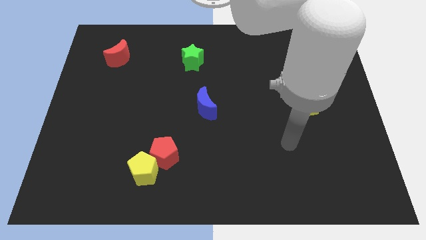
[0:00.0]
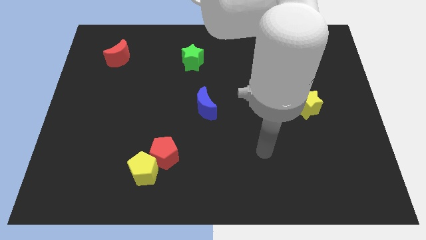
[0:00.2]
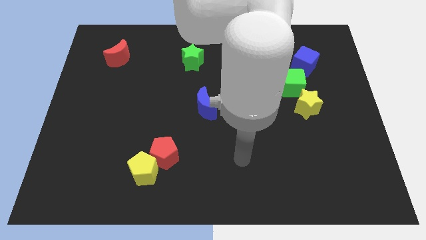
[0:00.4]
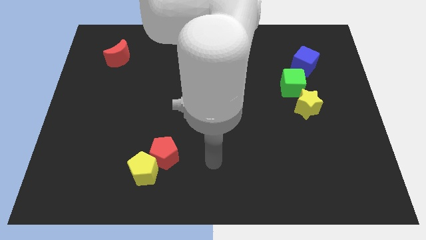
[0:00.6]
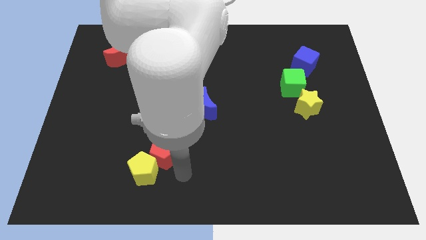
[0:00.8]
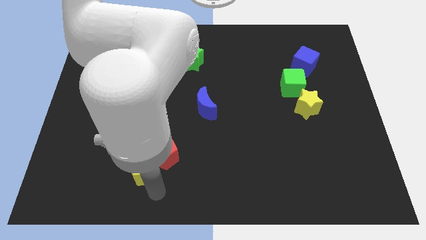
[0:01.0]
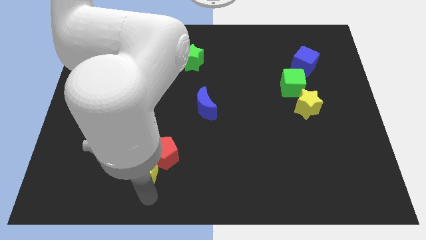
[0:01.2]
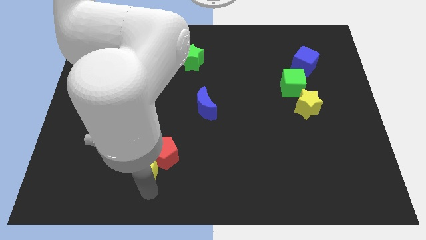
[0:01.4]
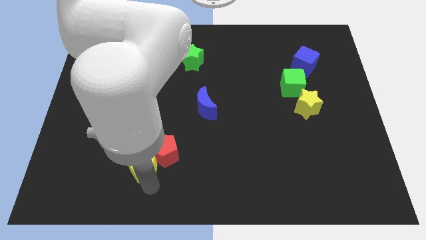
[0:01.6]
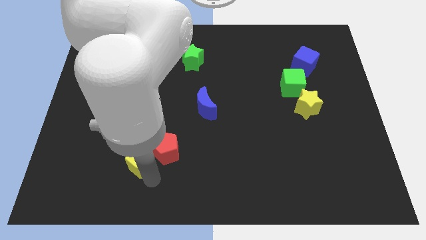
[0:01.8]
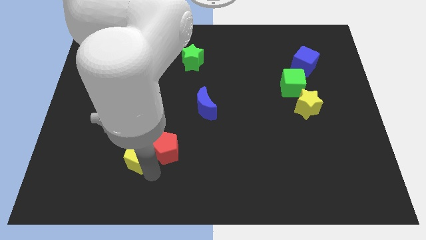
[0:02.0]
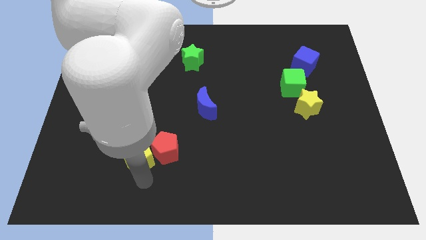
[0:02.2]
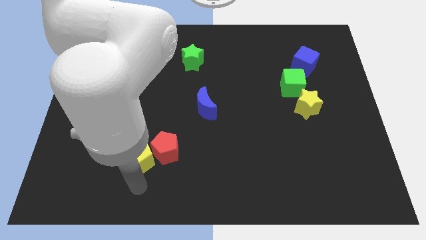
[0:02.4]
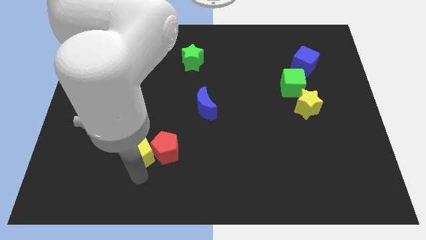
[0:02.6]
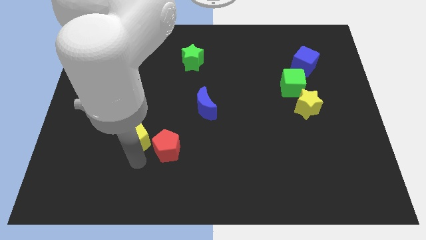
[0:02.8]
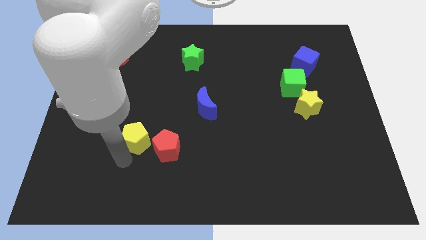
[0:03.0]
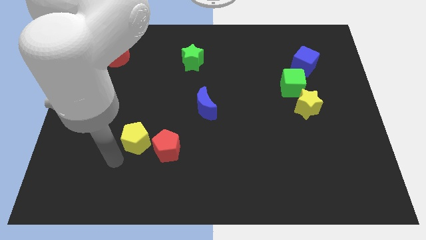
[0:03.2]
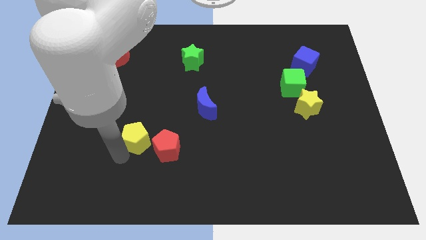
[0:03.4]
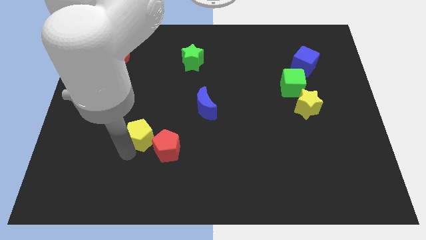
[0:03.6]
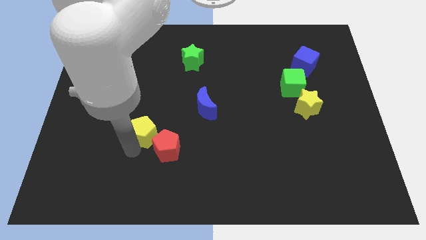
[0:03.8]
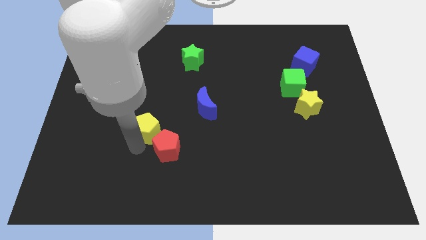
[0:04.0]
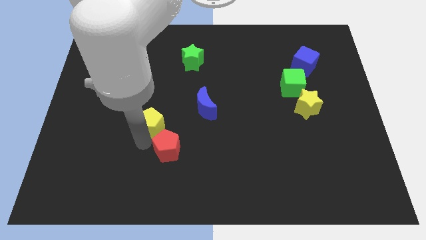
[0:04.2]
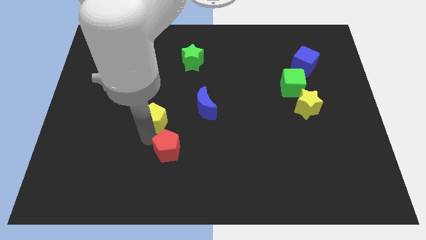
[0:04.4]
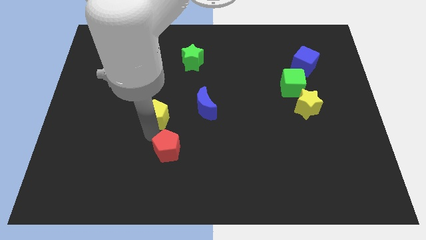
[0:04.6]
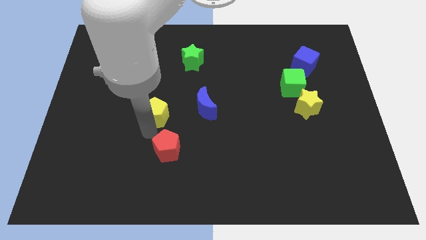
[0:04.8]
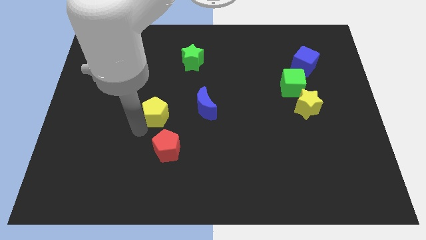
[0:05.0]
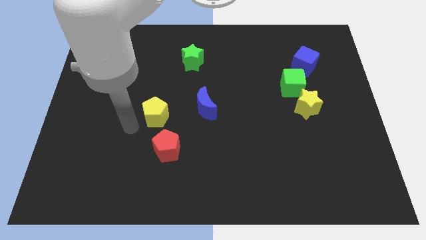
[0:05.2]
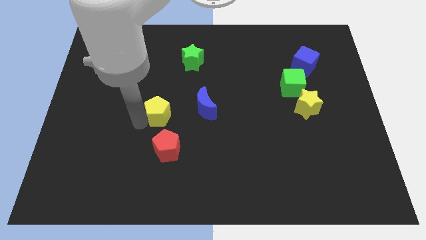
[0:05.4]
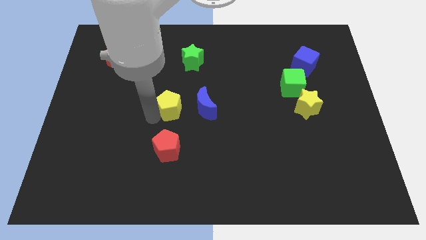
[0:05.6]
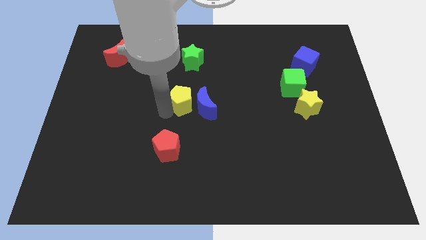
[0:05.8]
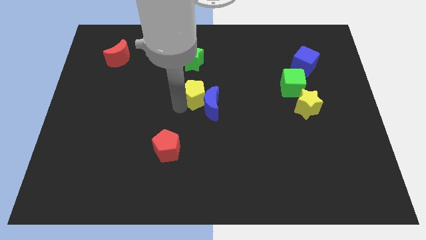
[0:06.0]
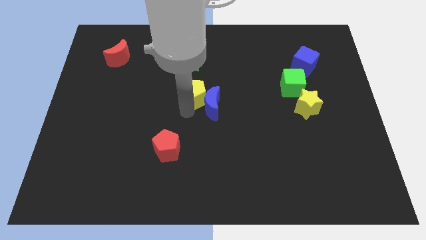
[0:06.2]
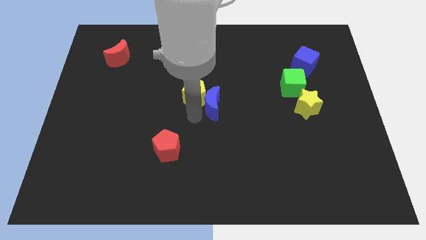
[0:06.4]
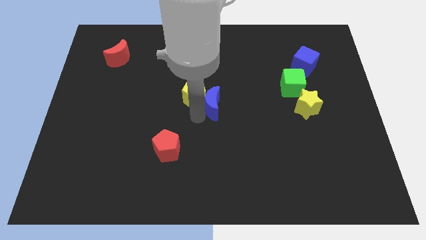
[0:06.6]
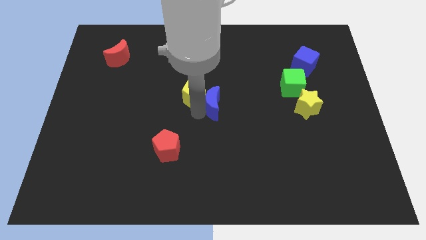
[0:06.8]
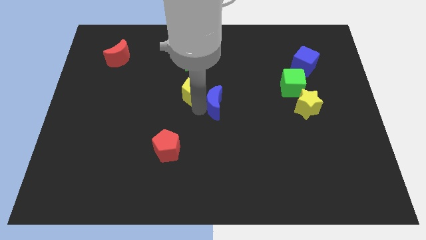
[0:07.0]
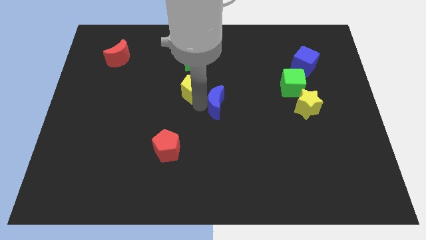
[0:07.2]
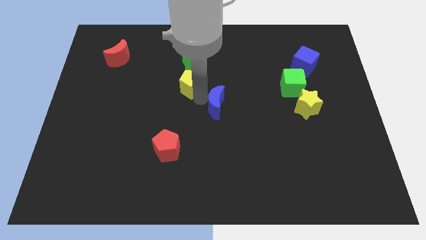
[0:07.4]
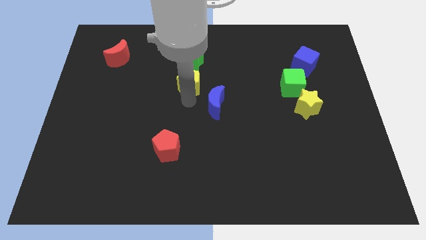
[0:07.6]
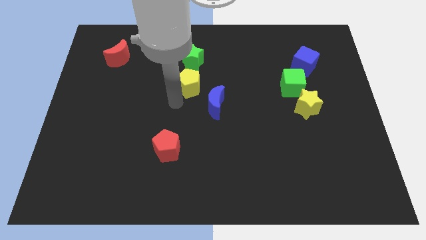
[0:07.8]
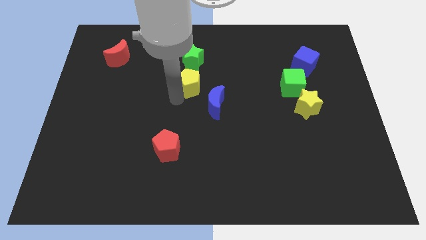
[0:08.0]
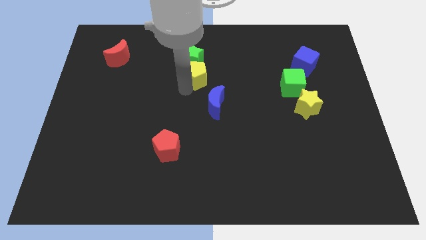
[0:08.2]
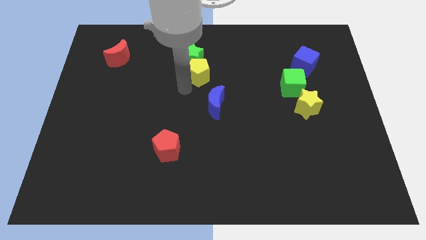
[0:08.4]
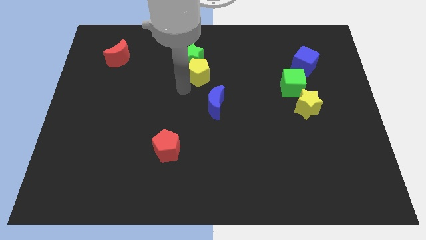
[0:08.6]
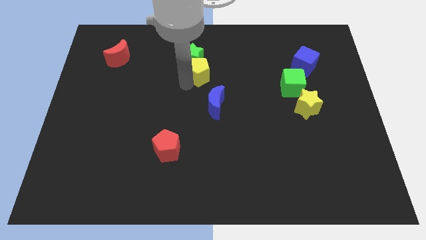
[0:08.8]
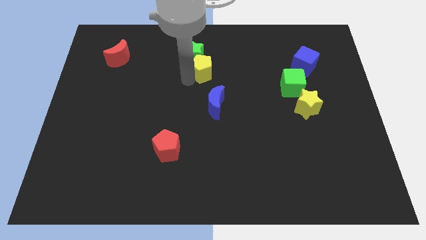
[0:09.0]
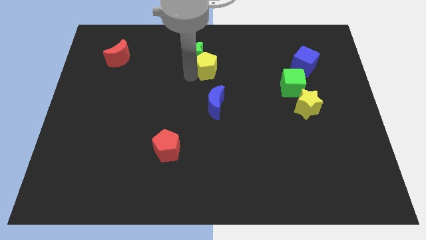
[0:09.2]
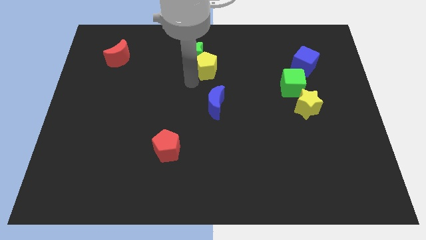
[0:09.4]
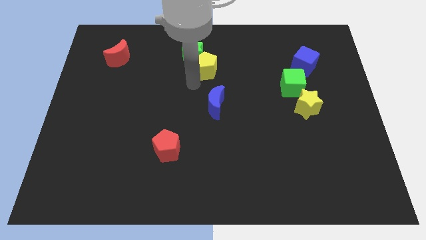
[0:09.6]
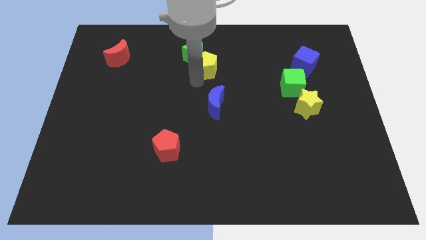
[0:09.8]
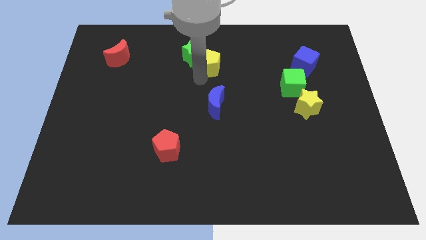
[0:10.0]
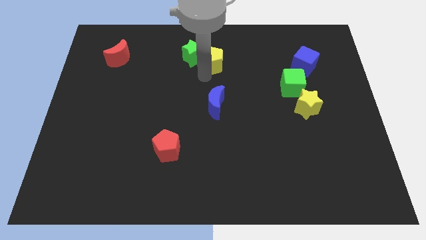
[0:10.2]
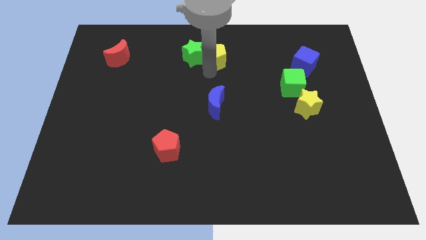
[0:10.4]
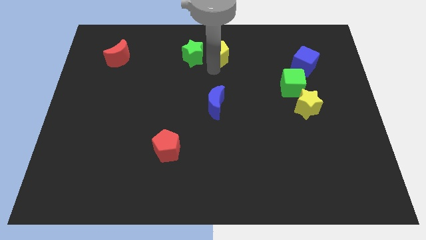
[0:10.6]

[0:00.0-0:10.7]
slide the yellow pentagon to the top side

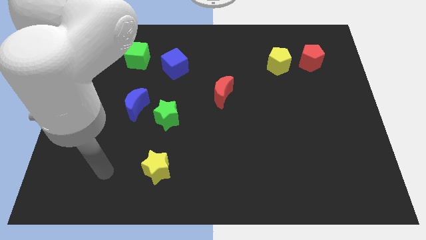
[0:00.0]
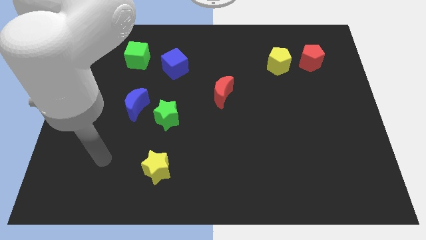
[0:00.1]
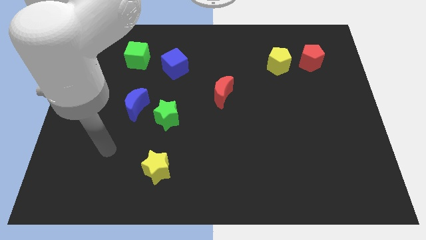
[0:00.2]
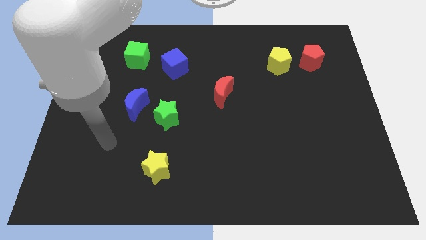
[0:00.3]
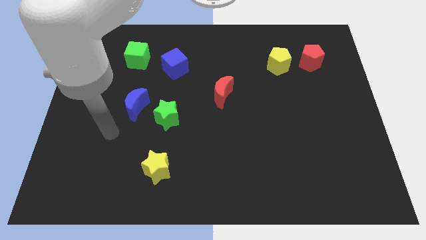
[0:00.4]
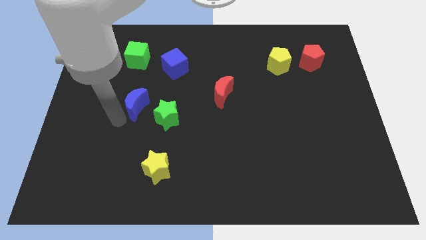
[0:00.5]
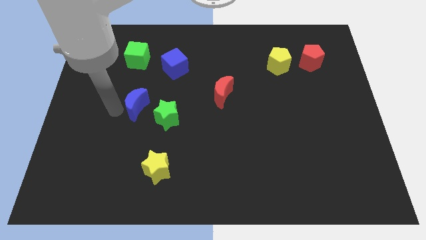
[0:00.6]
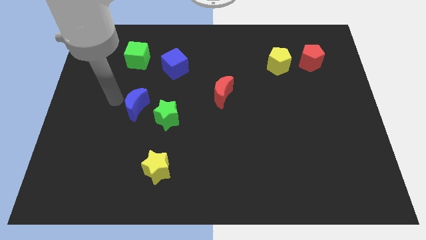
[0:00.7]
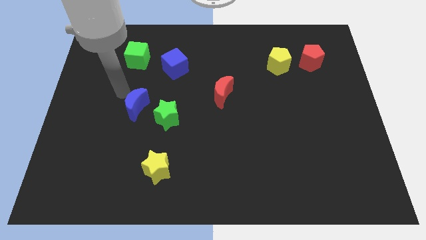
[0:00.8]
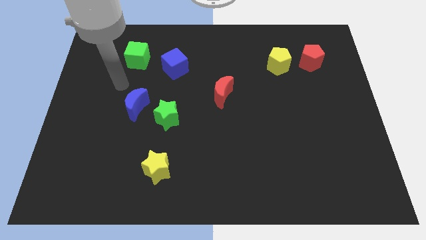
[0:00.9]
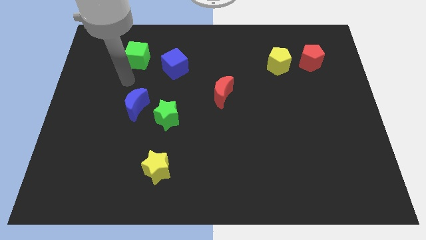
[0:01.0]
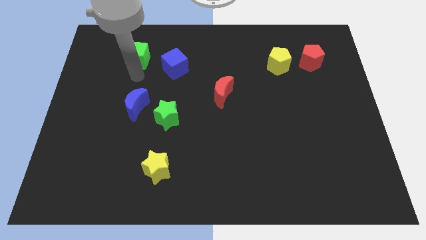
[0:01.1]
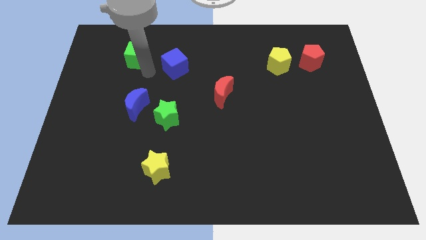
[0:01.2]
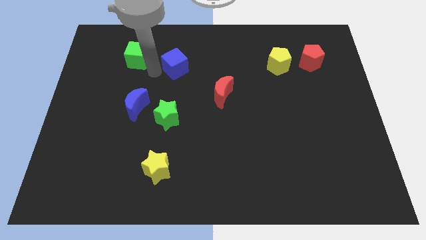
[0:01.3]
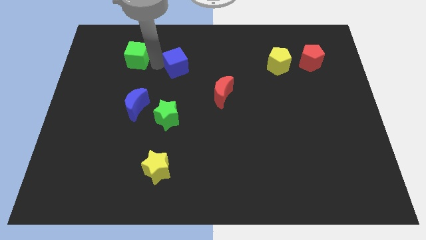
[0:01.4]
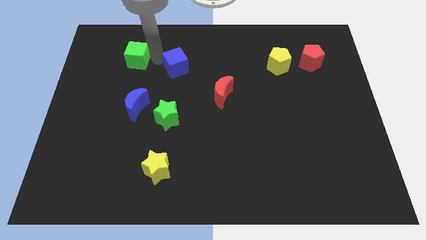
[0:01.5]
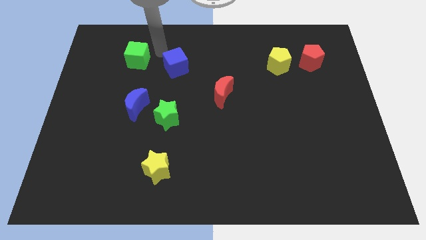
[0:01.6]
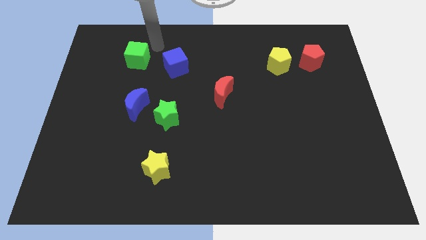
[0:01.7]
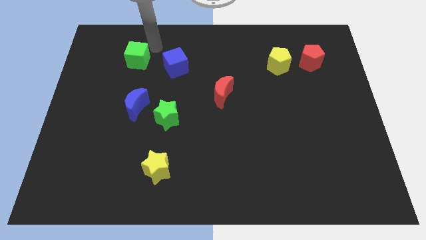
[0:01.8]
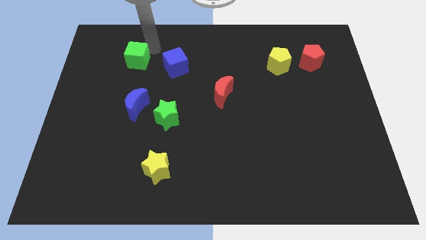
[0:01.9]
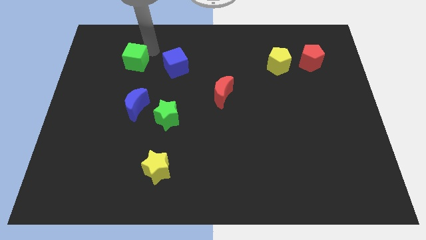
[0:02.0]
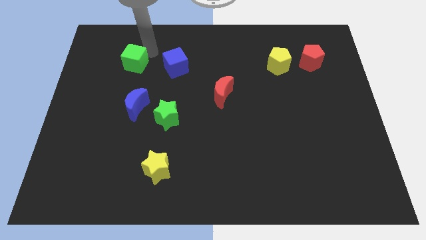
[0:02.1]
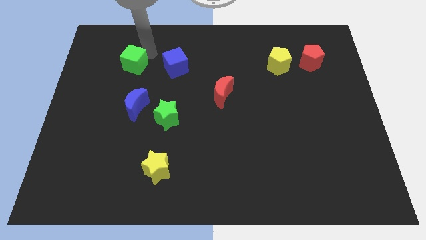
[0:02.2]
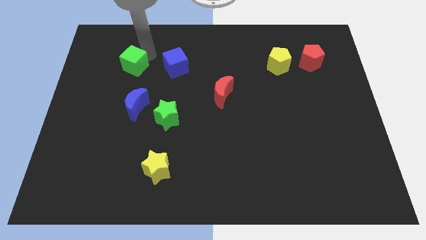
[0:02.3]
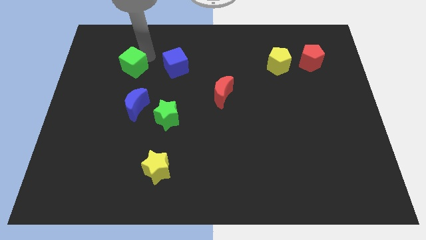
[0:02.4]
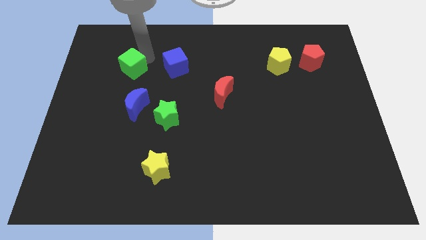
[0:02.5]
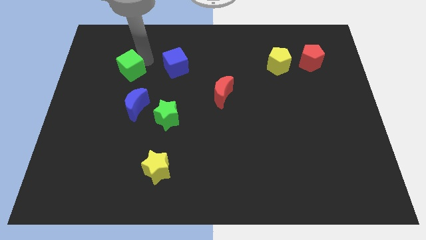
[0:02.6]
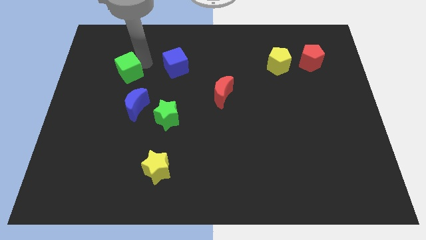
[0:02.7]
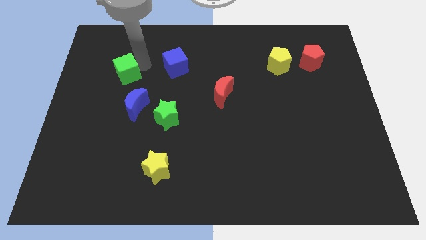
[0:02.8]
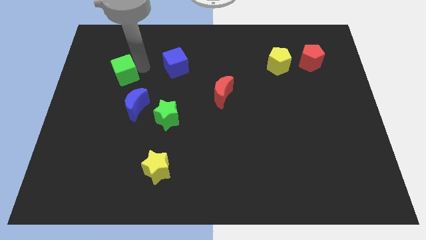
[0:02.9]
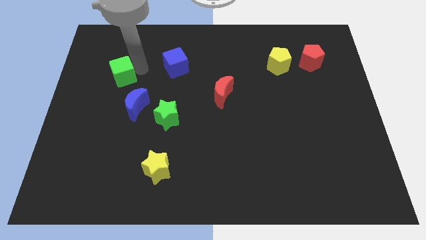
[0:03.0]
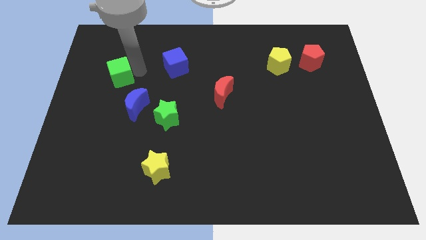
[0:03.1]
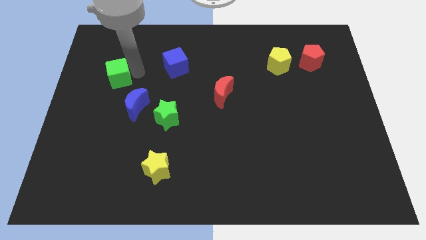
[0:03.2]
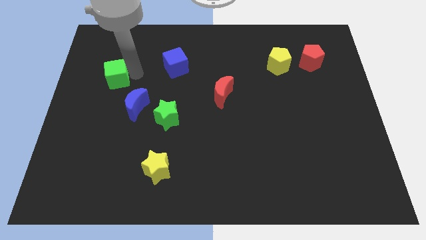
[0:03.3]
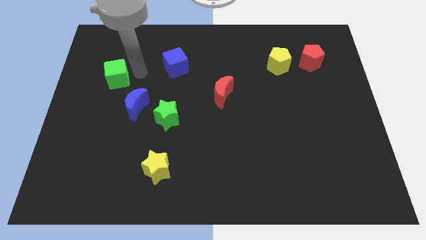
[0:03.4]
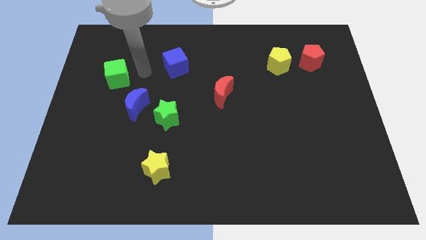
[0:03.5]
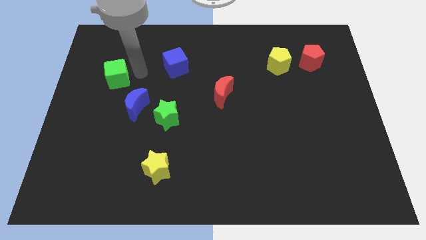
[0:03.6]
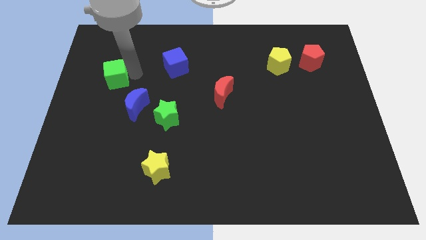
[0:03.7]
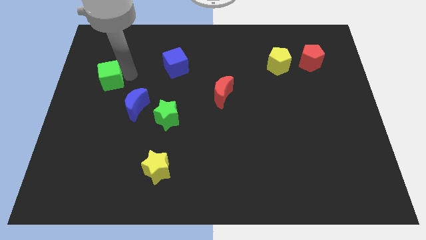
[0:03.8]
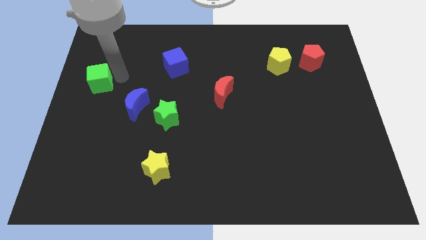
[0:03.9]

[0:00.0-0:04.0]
put the green cube to the left side
